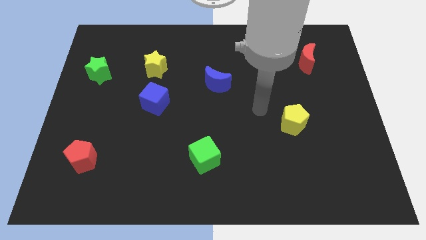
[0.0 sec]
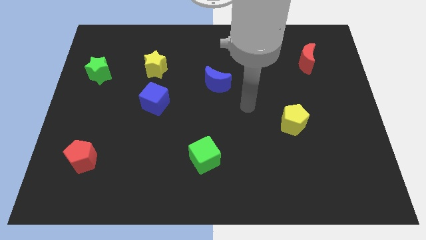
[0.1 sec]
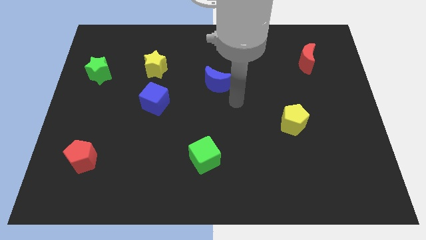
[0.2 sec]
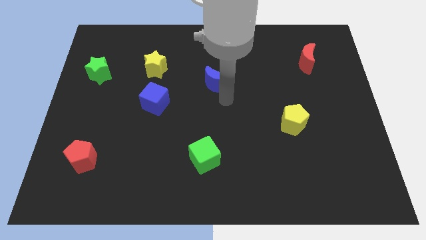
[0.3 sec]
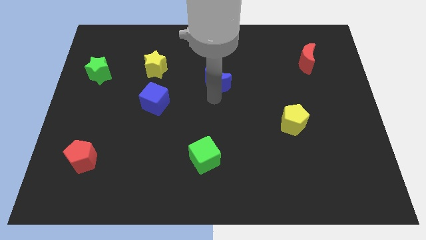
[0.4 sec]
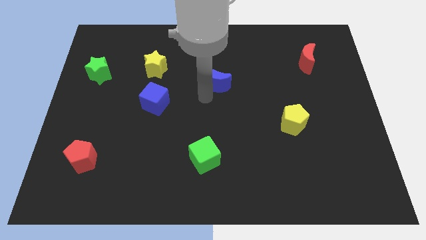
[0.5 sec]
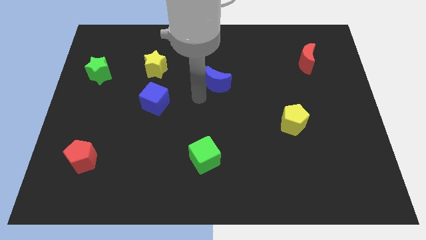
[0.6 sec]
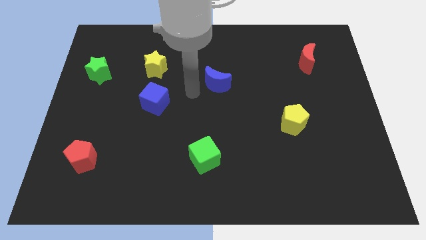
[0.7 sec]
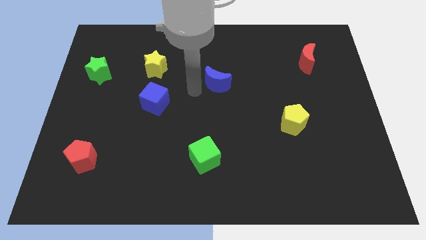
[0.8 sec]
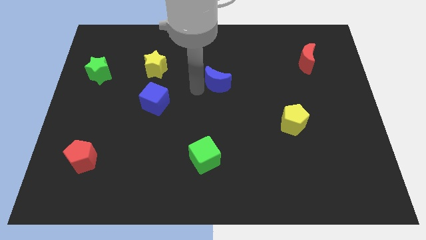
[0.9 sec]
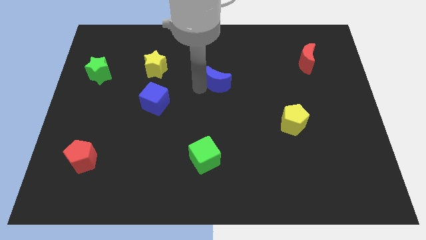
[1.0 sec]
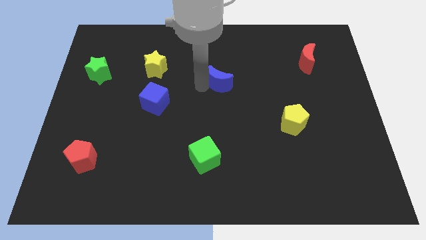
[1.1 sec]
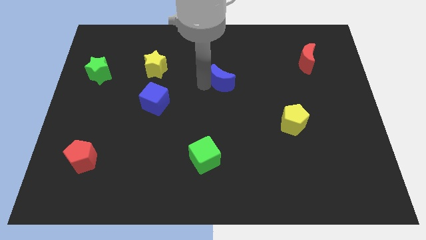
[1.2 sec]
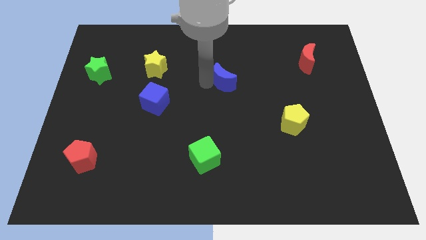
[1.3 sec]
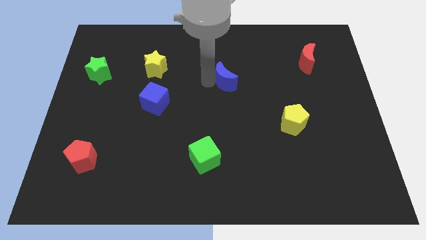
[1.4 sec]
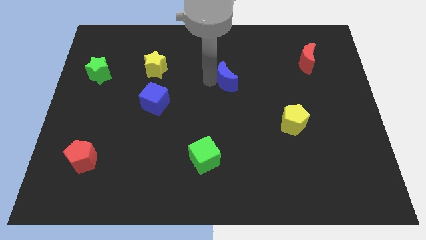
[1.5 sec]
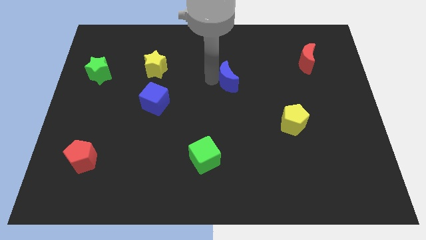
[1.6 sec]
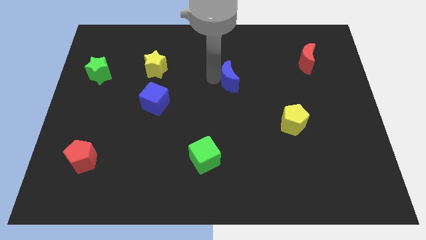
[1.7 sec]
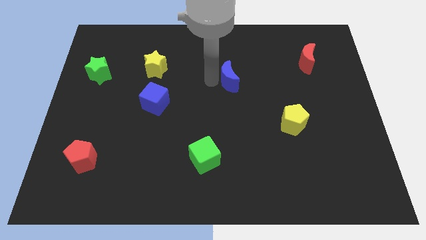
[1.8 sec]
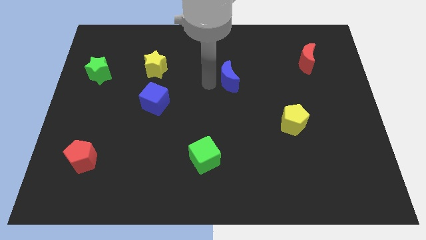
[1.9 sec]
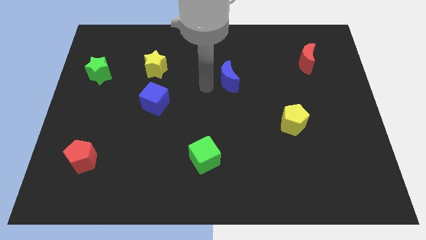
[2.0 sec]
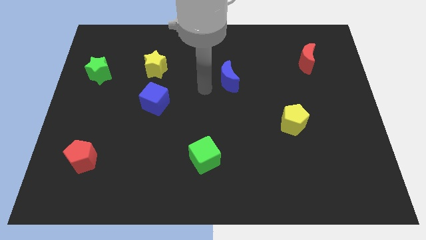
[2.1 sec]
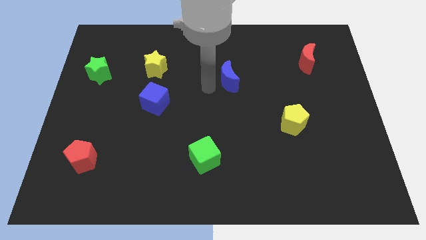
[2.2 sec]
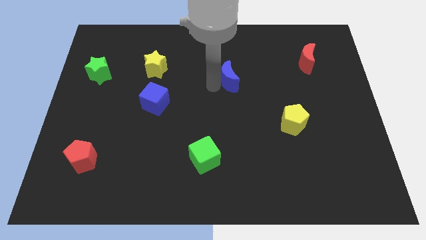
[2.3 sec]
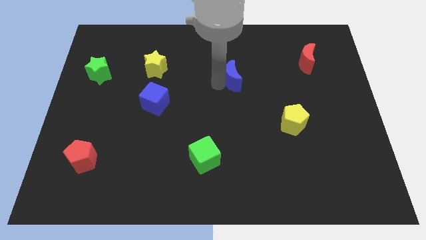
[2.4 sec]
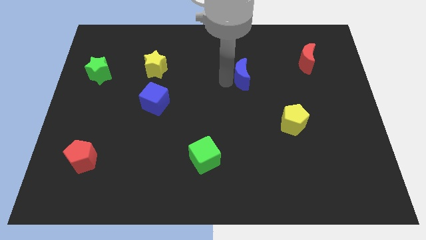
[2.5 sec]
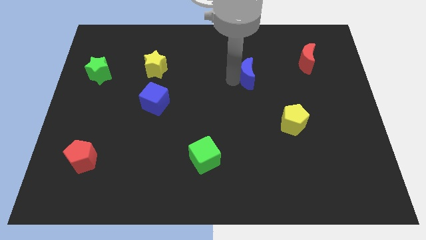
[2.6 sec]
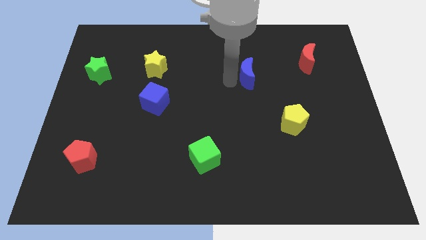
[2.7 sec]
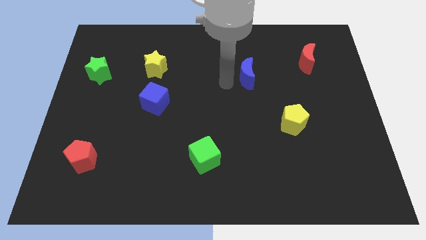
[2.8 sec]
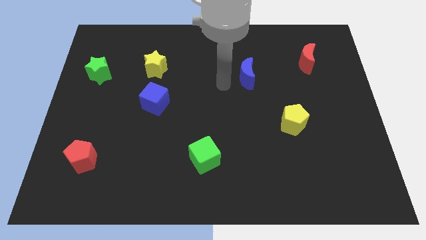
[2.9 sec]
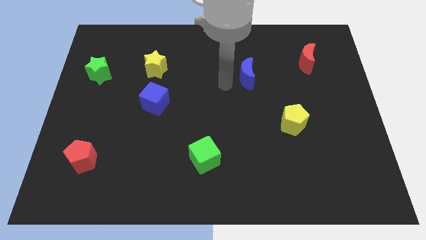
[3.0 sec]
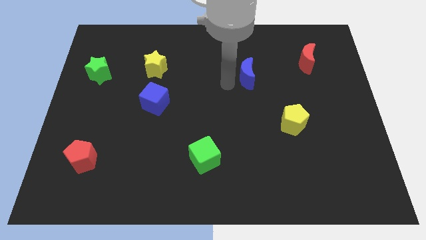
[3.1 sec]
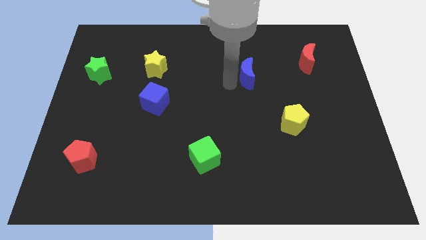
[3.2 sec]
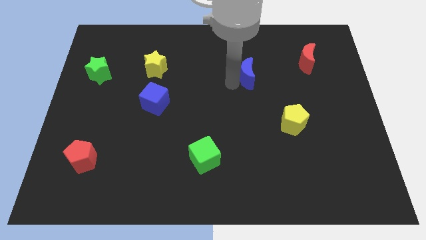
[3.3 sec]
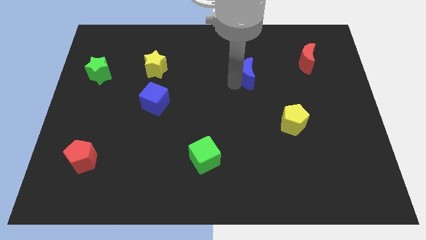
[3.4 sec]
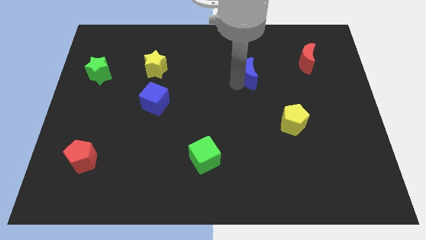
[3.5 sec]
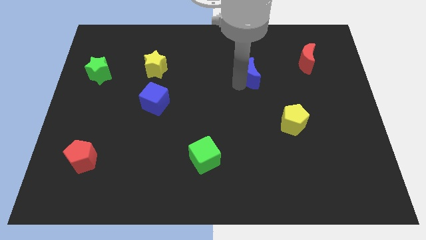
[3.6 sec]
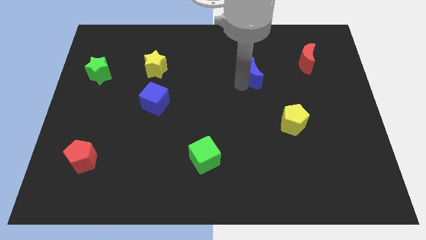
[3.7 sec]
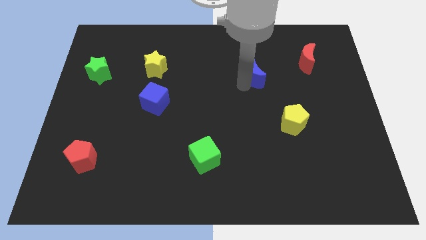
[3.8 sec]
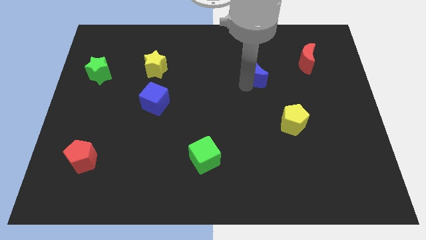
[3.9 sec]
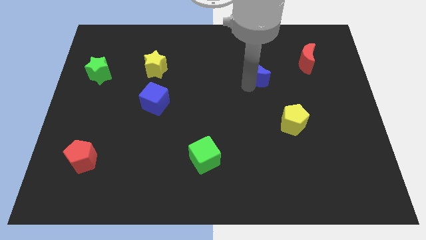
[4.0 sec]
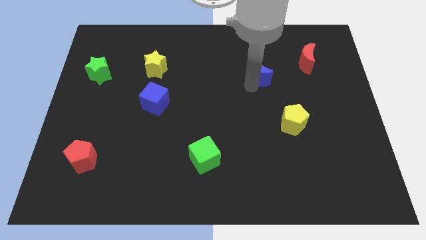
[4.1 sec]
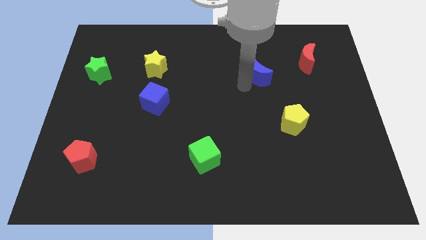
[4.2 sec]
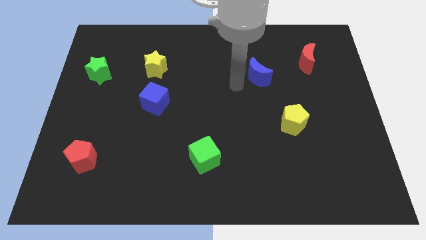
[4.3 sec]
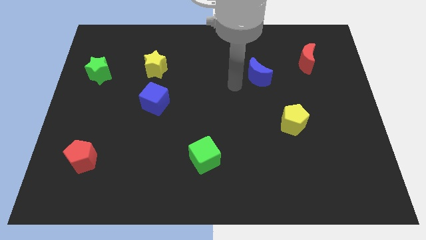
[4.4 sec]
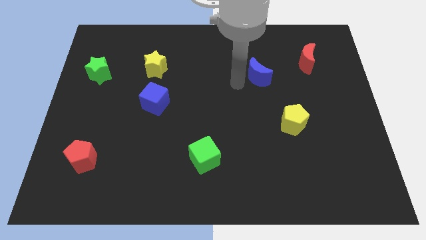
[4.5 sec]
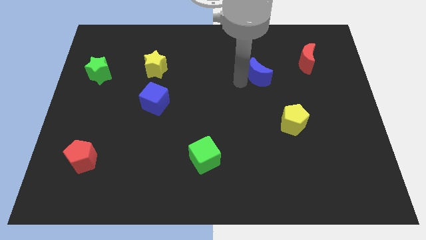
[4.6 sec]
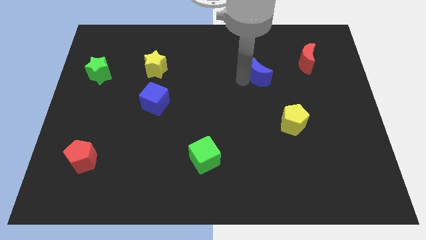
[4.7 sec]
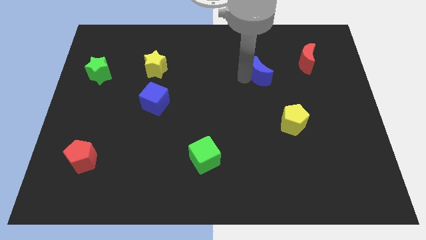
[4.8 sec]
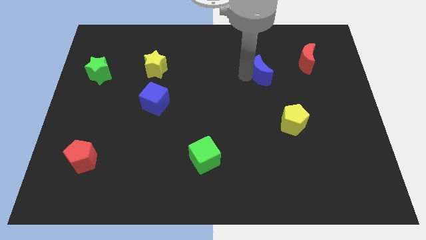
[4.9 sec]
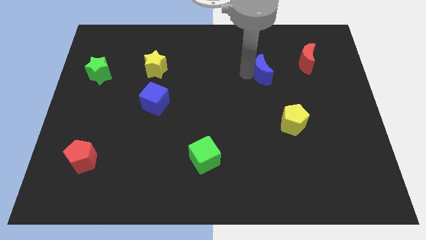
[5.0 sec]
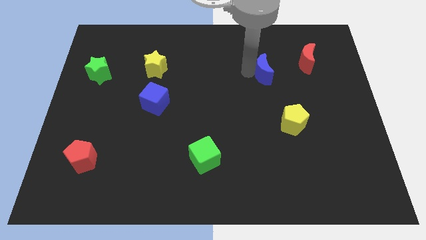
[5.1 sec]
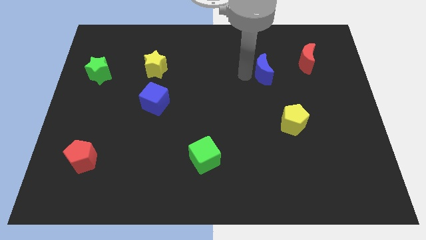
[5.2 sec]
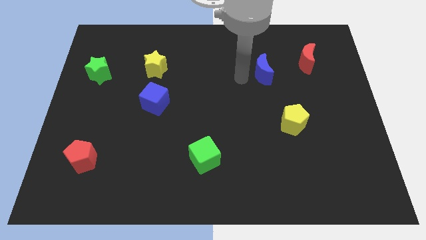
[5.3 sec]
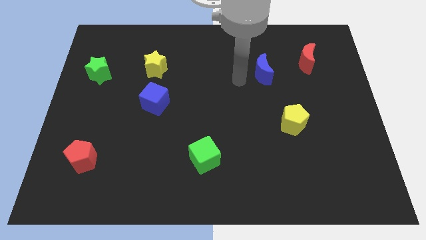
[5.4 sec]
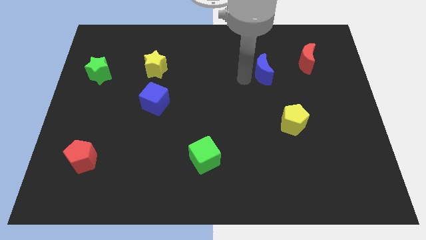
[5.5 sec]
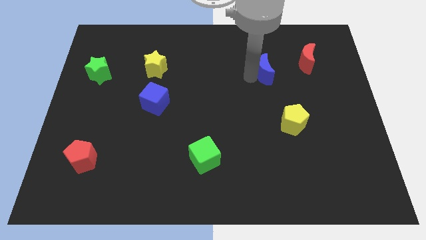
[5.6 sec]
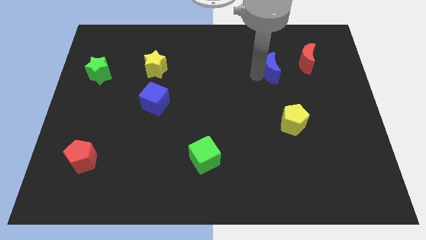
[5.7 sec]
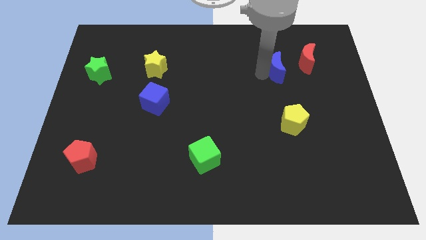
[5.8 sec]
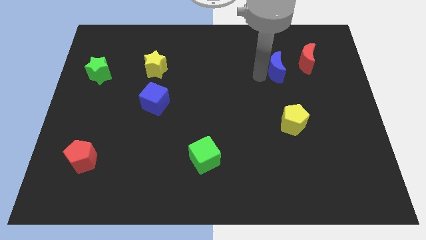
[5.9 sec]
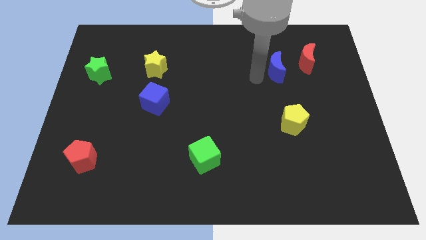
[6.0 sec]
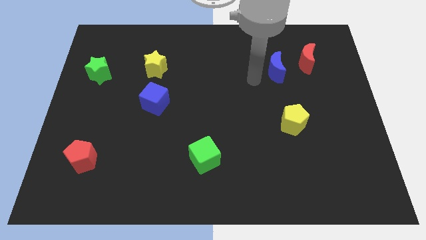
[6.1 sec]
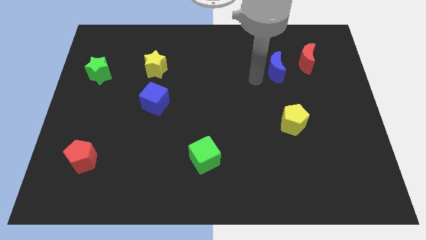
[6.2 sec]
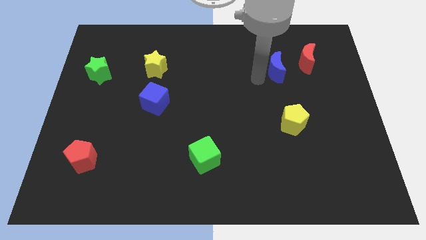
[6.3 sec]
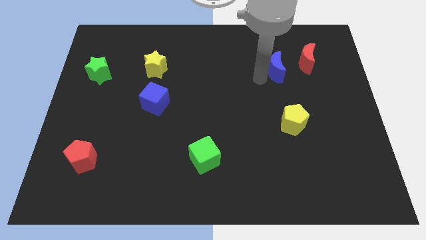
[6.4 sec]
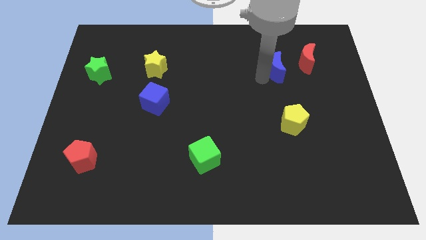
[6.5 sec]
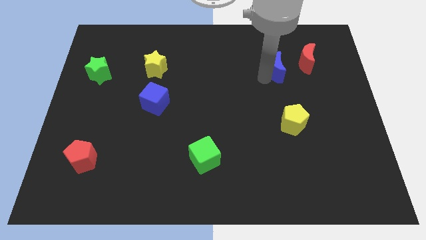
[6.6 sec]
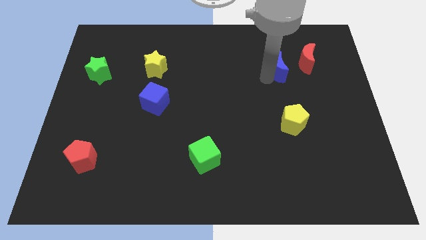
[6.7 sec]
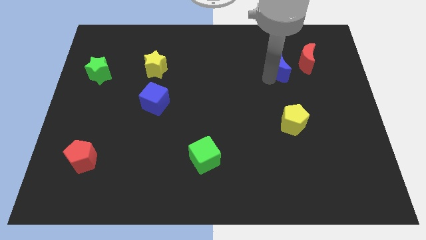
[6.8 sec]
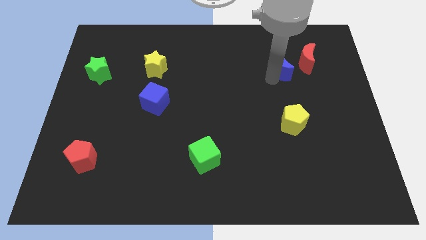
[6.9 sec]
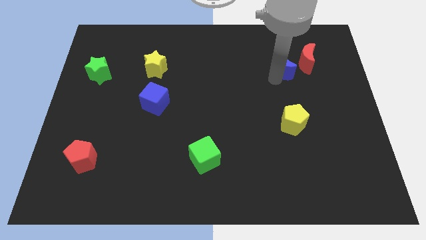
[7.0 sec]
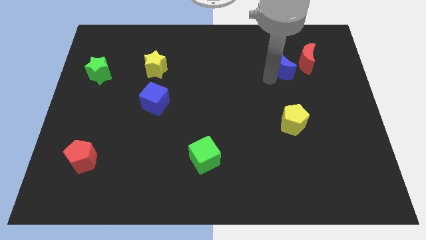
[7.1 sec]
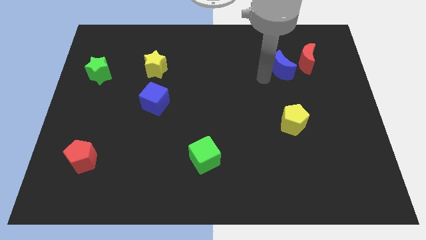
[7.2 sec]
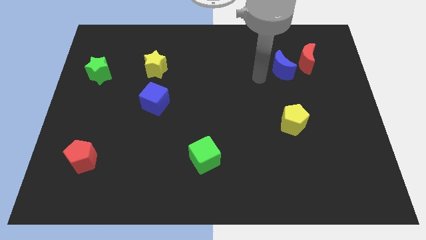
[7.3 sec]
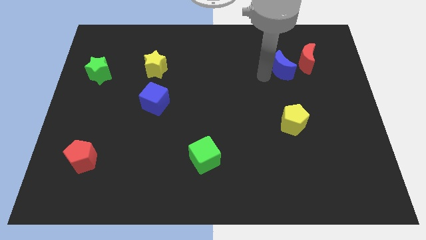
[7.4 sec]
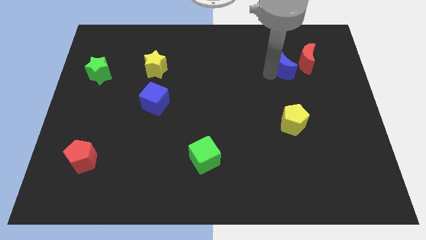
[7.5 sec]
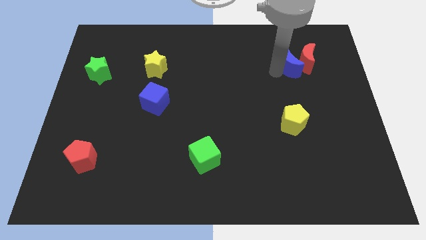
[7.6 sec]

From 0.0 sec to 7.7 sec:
push the blue moon towards the red moon
